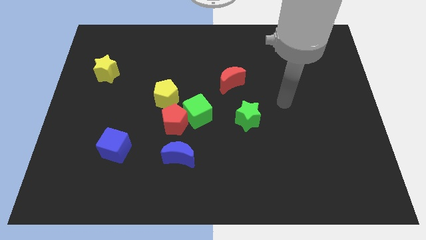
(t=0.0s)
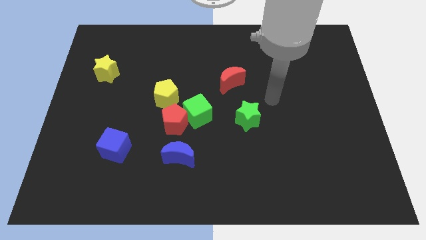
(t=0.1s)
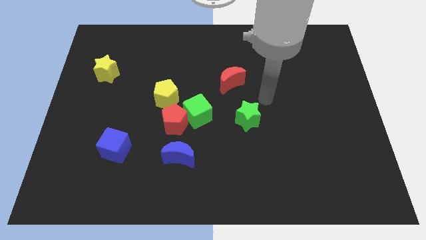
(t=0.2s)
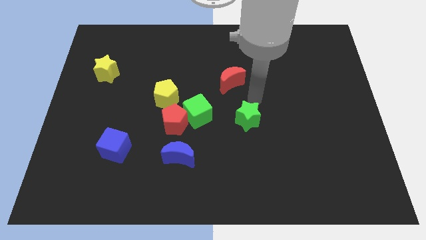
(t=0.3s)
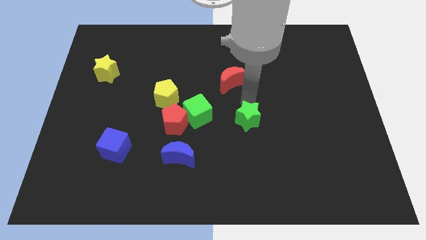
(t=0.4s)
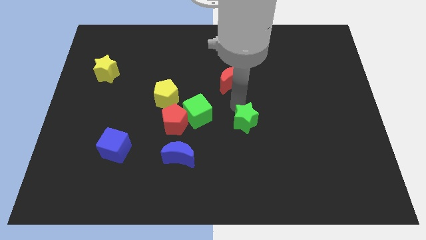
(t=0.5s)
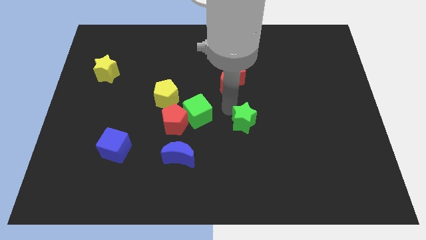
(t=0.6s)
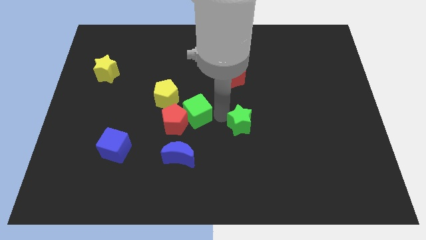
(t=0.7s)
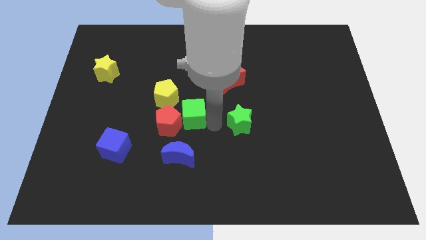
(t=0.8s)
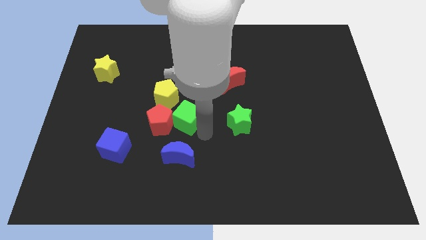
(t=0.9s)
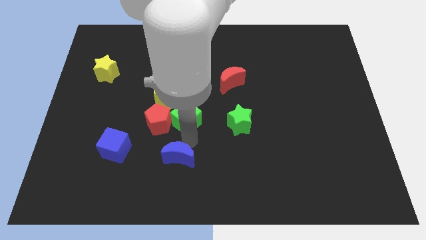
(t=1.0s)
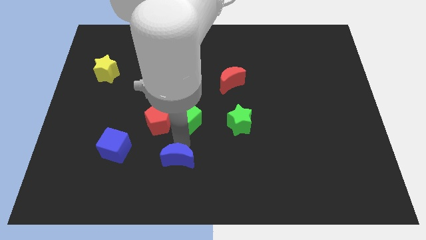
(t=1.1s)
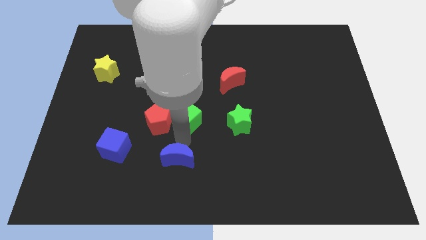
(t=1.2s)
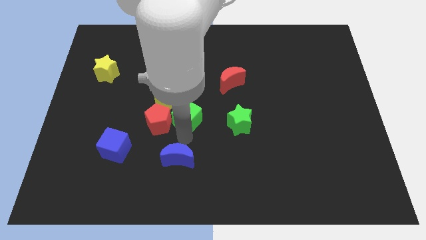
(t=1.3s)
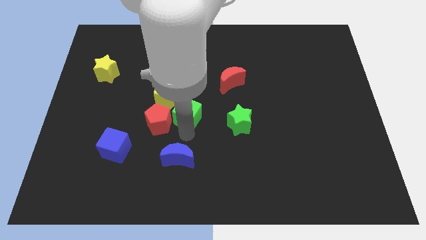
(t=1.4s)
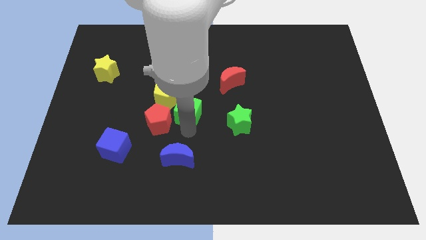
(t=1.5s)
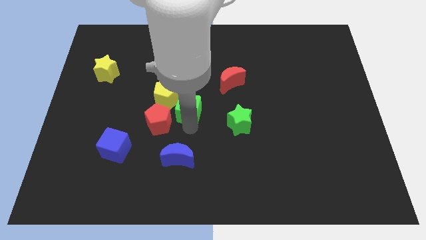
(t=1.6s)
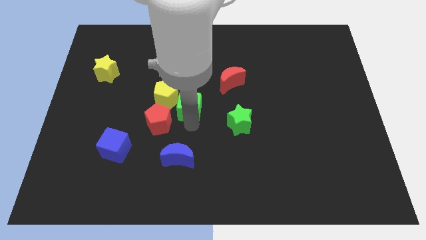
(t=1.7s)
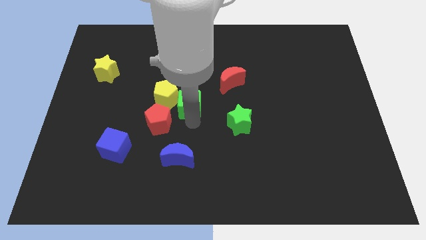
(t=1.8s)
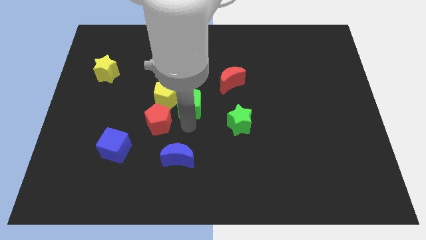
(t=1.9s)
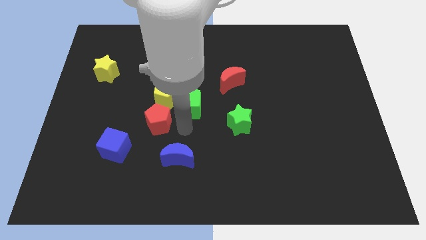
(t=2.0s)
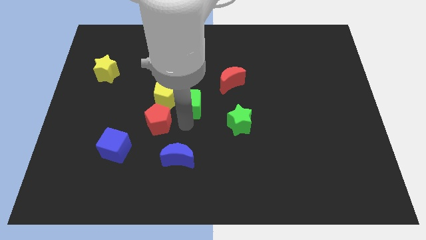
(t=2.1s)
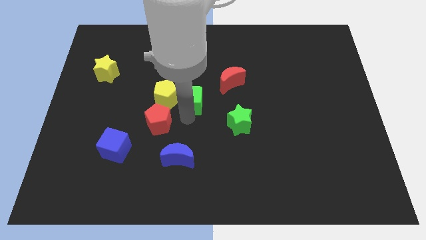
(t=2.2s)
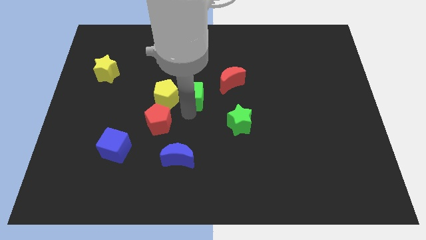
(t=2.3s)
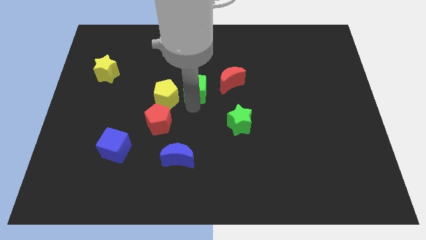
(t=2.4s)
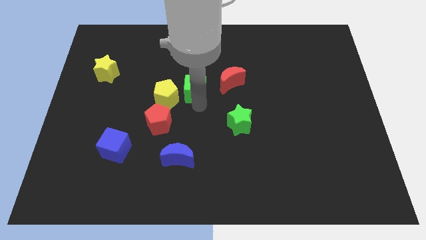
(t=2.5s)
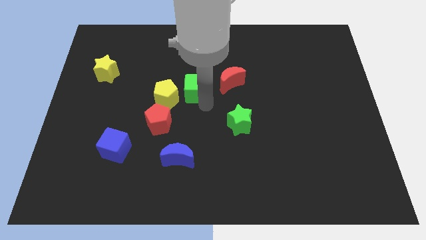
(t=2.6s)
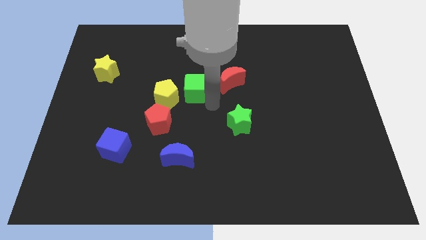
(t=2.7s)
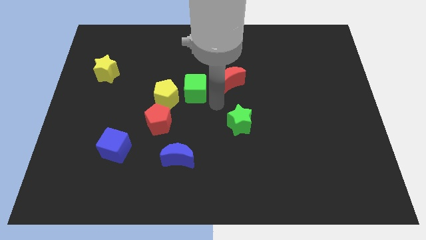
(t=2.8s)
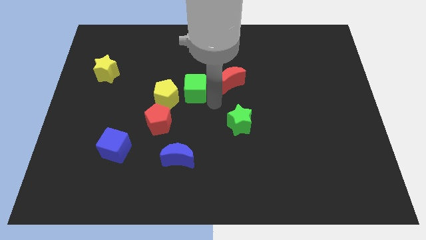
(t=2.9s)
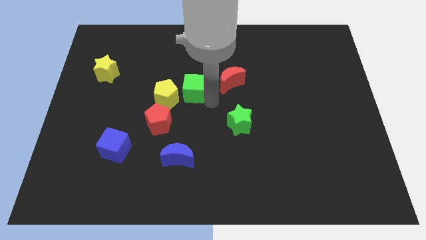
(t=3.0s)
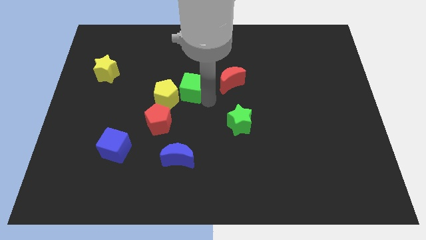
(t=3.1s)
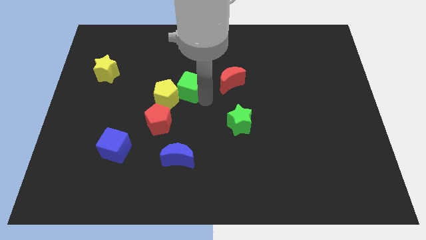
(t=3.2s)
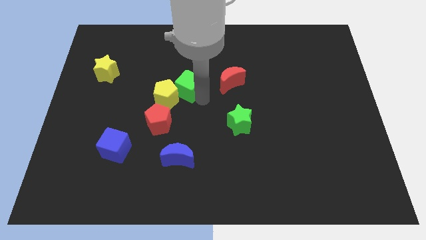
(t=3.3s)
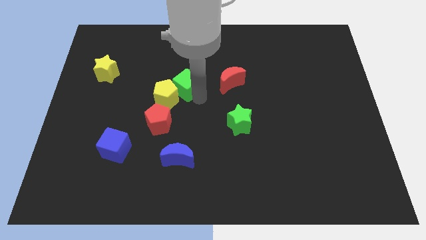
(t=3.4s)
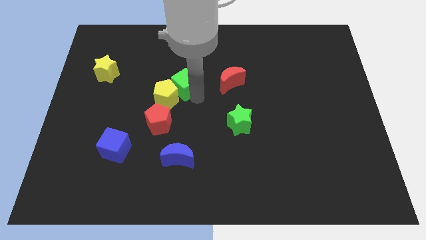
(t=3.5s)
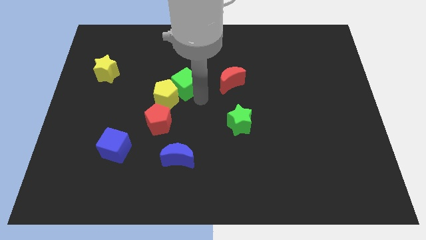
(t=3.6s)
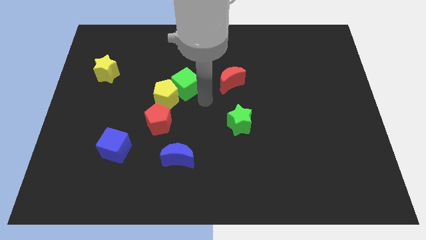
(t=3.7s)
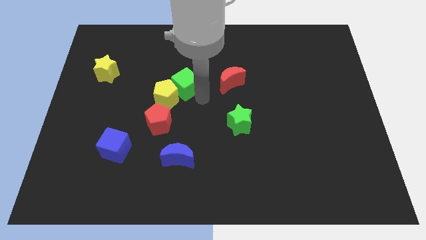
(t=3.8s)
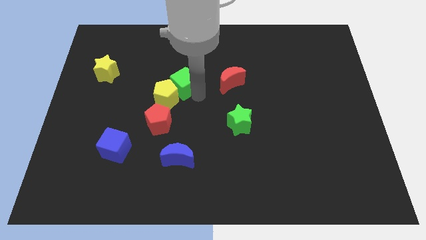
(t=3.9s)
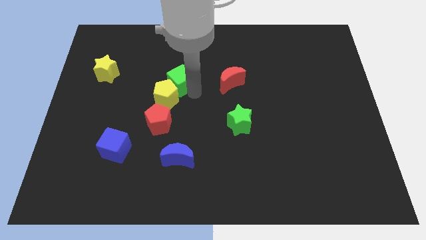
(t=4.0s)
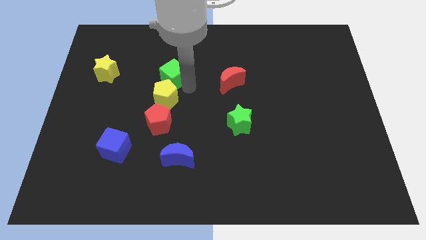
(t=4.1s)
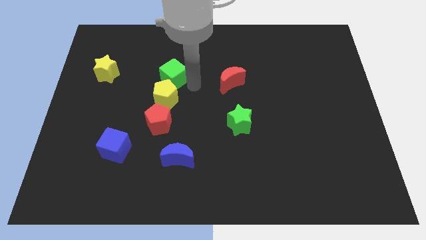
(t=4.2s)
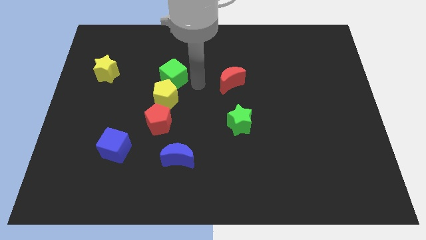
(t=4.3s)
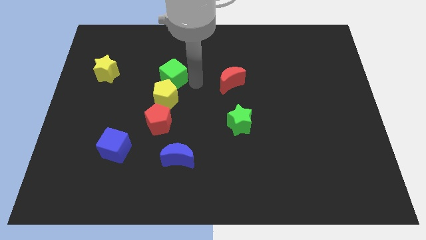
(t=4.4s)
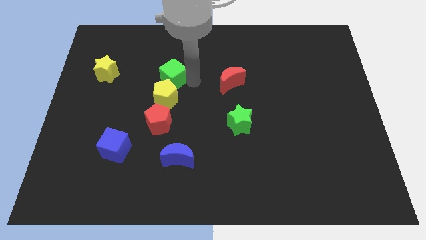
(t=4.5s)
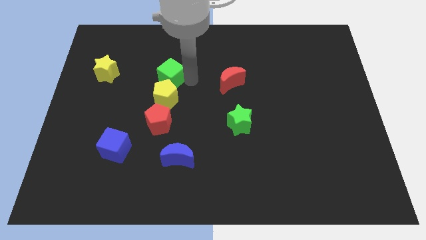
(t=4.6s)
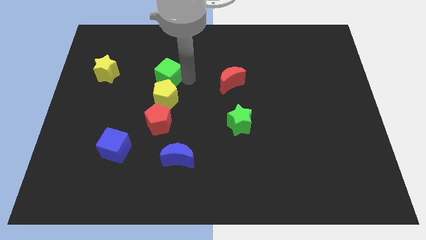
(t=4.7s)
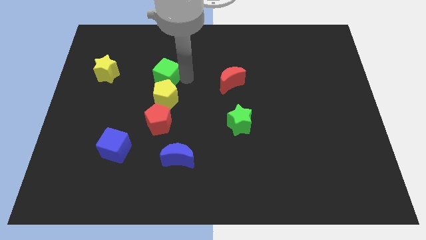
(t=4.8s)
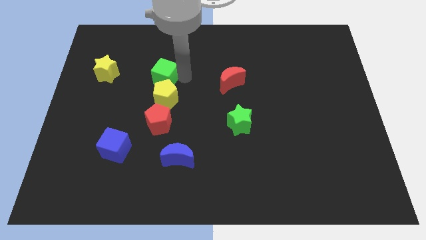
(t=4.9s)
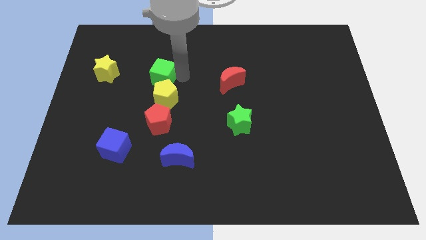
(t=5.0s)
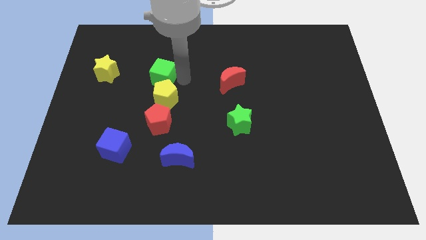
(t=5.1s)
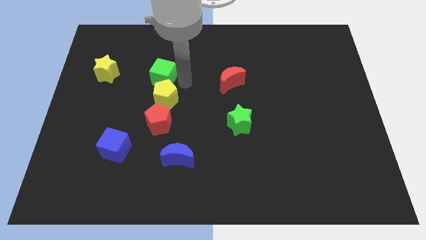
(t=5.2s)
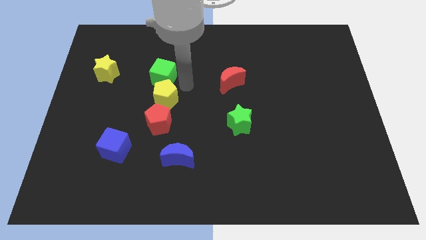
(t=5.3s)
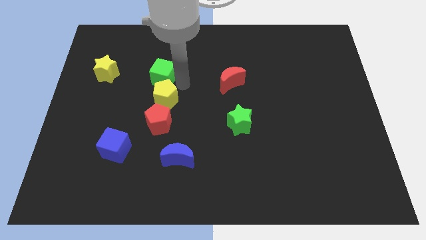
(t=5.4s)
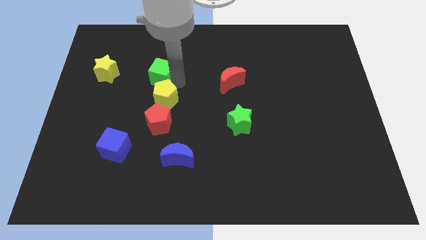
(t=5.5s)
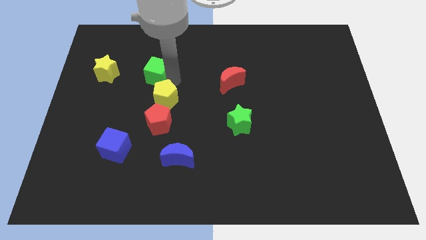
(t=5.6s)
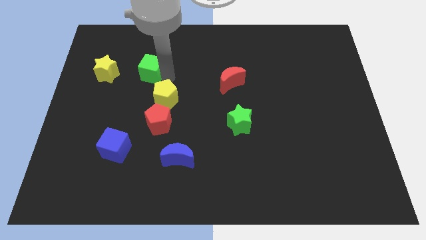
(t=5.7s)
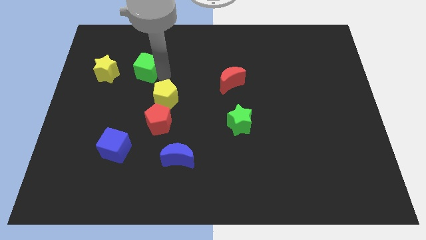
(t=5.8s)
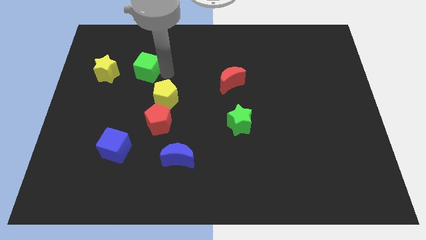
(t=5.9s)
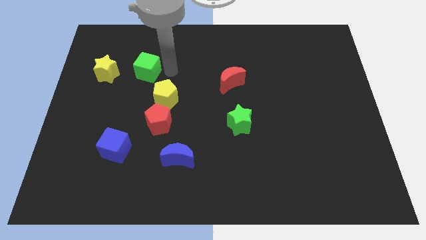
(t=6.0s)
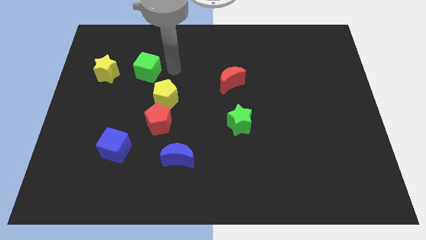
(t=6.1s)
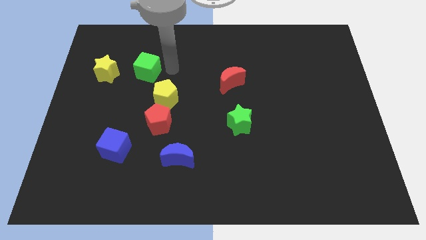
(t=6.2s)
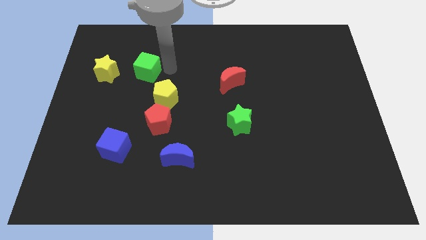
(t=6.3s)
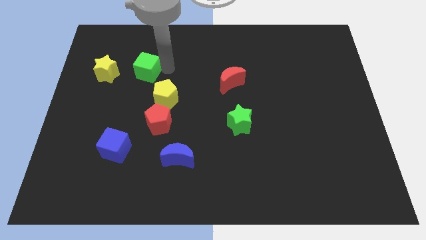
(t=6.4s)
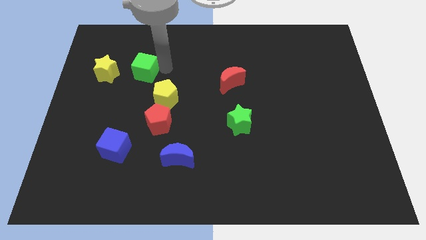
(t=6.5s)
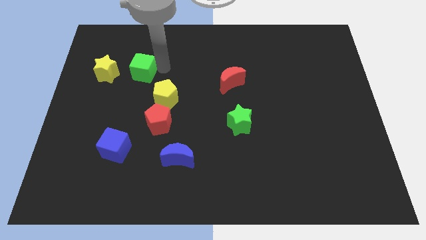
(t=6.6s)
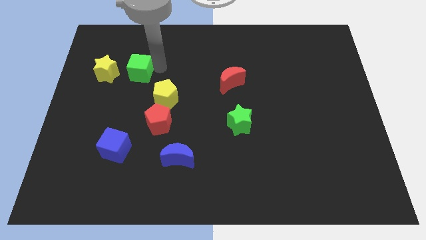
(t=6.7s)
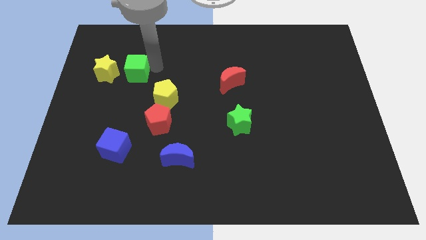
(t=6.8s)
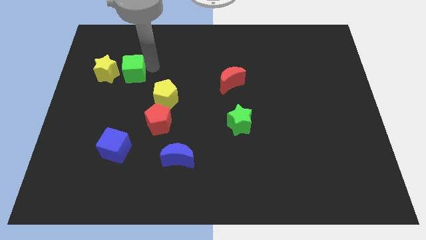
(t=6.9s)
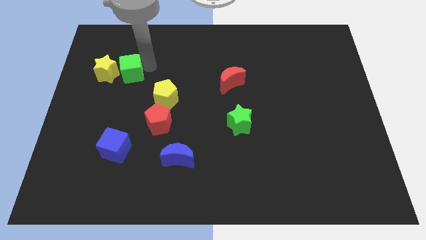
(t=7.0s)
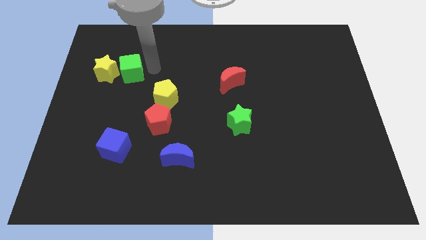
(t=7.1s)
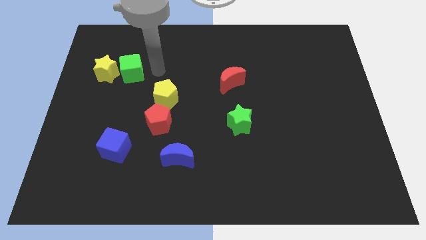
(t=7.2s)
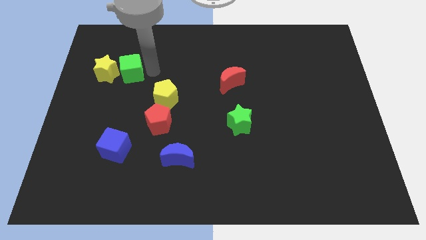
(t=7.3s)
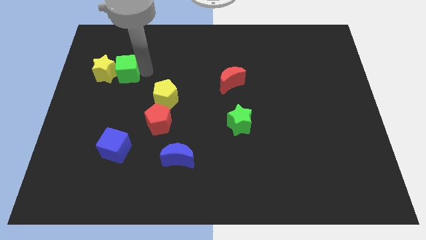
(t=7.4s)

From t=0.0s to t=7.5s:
move the green cube next to the yellow star
